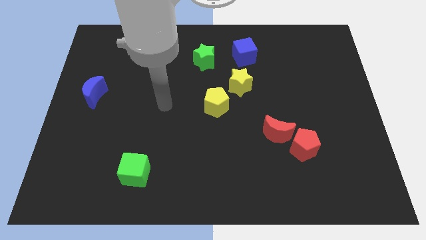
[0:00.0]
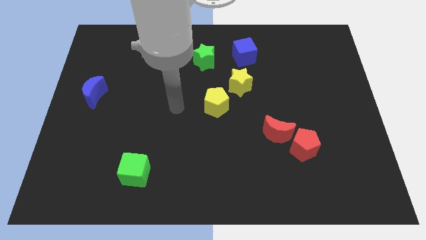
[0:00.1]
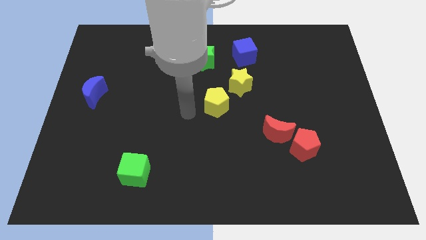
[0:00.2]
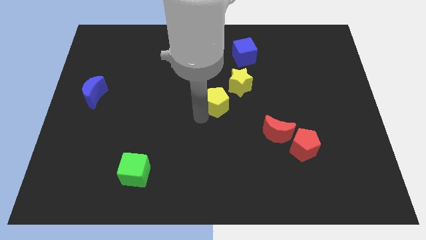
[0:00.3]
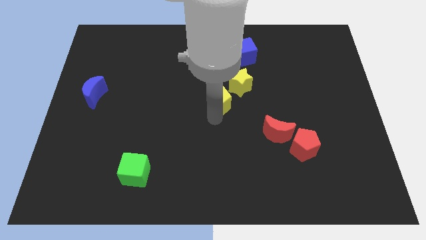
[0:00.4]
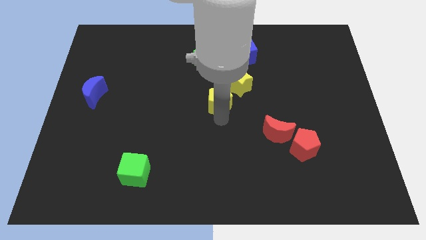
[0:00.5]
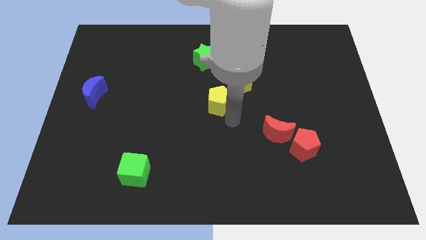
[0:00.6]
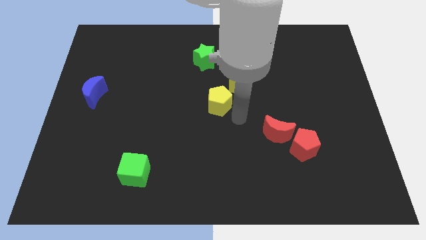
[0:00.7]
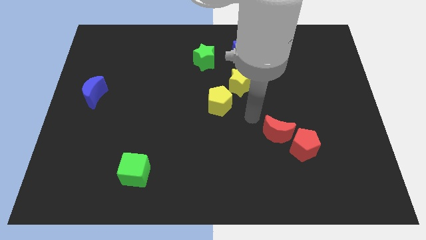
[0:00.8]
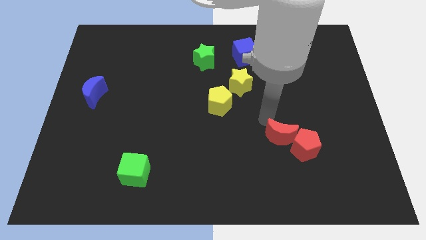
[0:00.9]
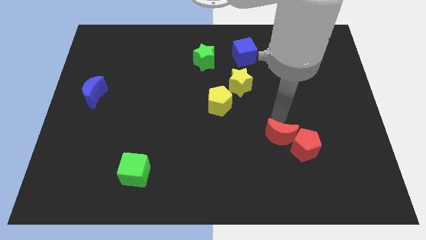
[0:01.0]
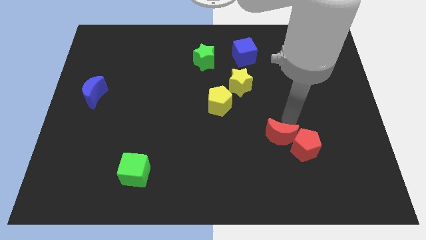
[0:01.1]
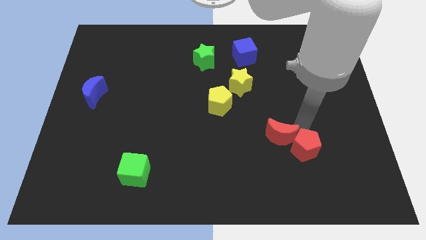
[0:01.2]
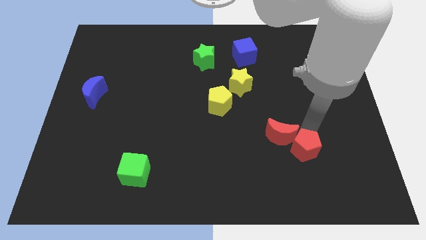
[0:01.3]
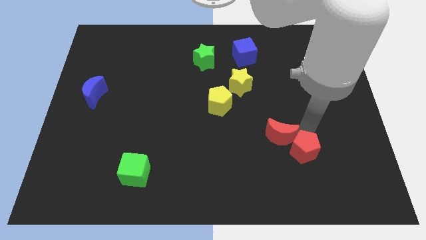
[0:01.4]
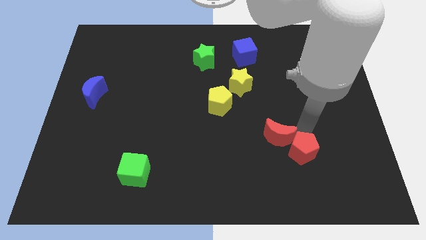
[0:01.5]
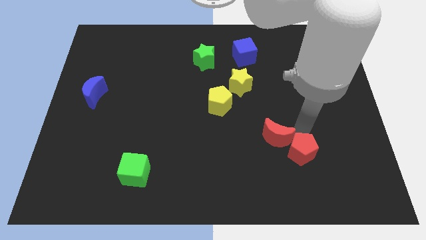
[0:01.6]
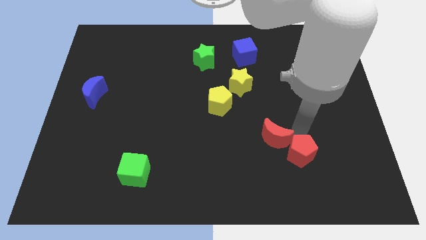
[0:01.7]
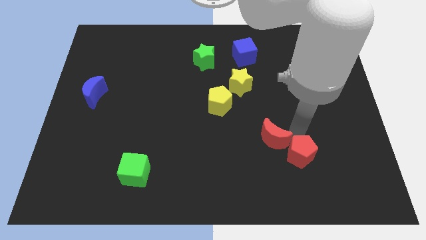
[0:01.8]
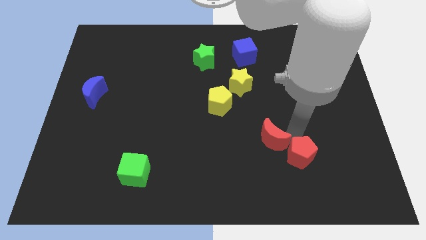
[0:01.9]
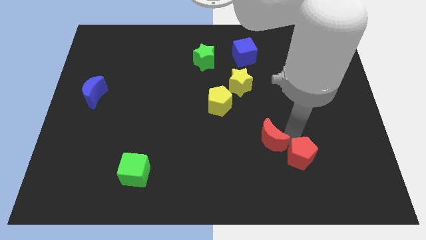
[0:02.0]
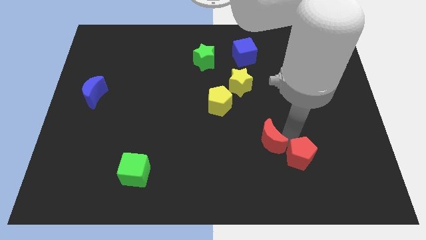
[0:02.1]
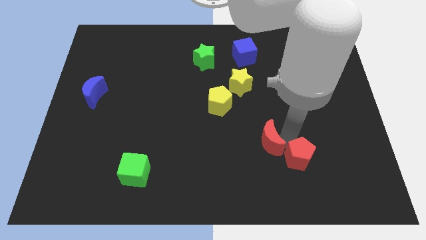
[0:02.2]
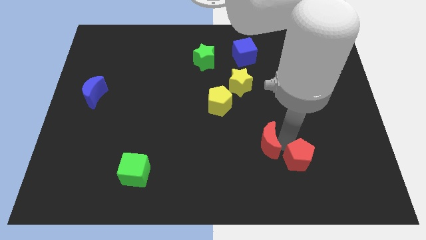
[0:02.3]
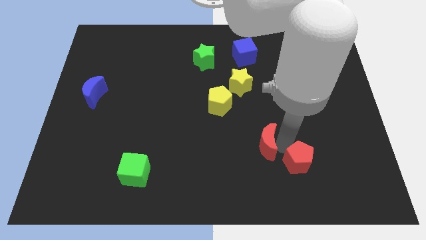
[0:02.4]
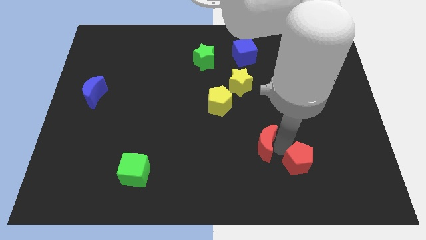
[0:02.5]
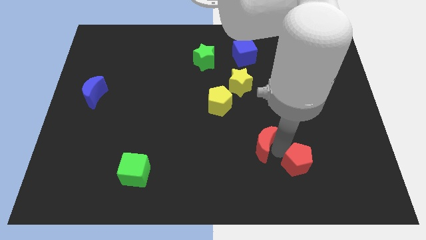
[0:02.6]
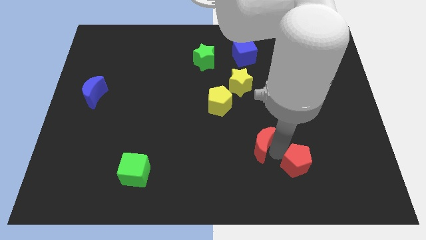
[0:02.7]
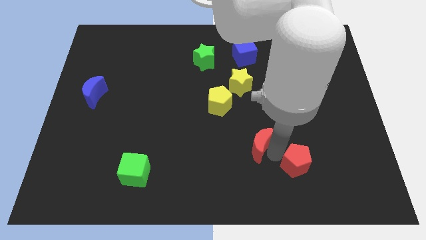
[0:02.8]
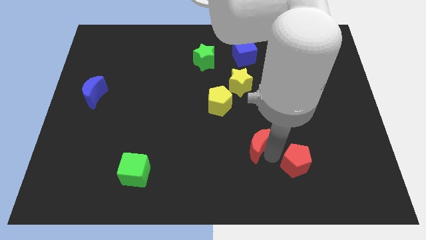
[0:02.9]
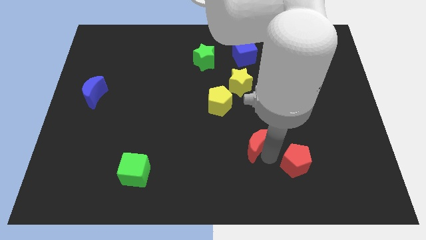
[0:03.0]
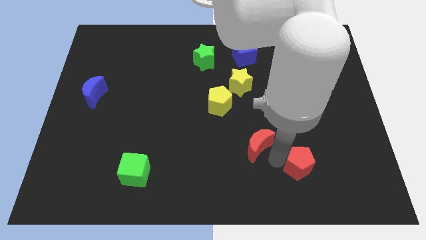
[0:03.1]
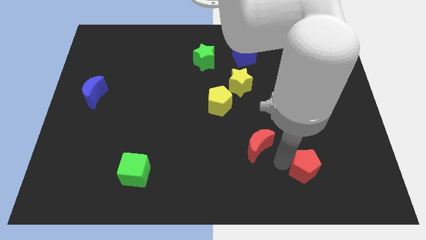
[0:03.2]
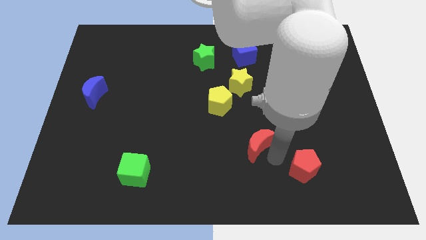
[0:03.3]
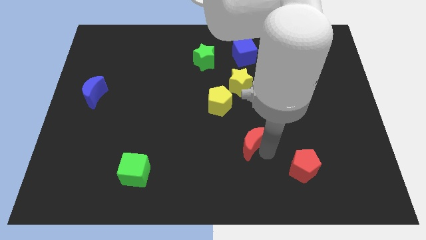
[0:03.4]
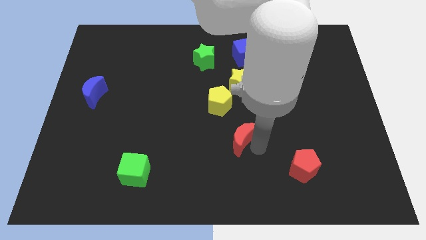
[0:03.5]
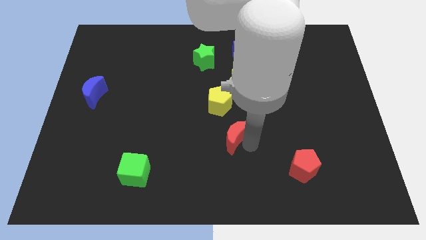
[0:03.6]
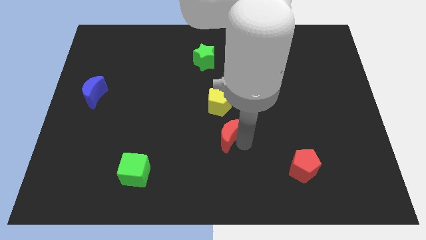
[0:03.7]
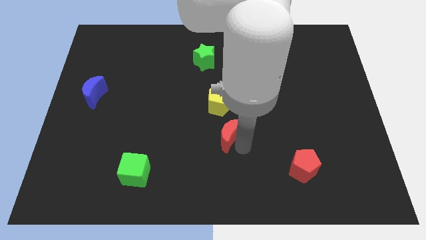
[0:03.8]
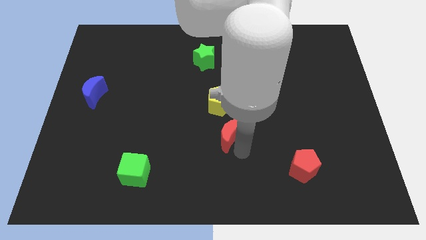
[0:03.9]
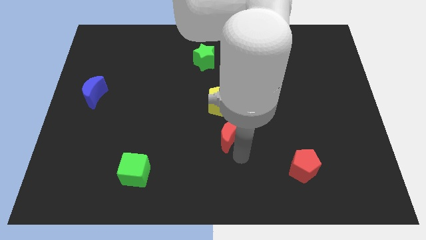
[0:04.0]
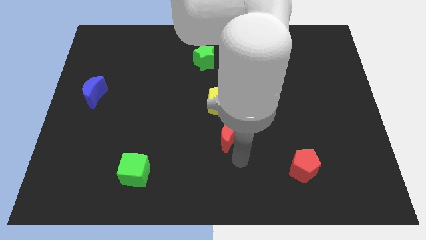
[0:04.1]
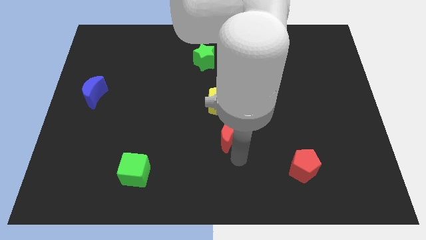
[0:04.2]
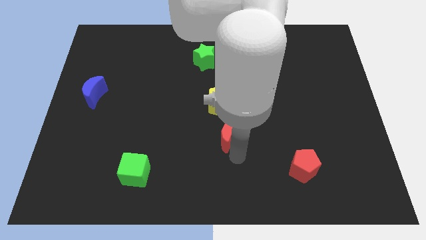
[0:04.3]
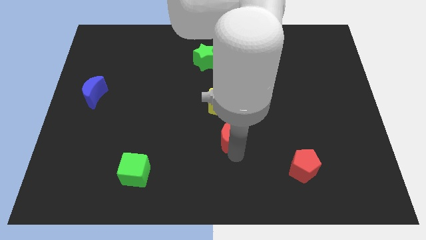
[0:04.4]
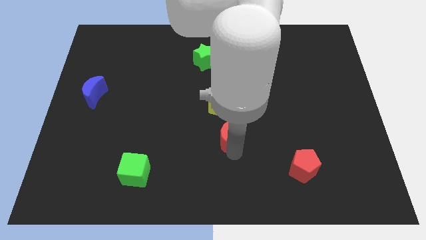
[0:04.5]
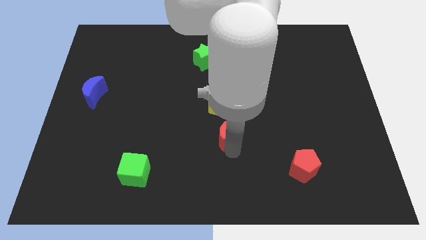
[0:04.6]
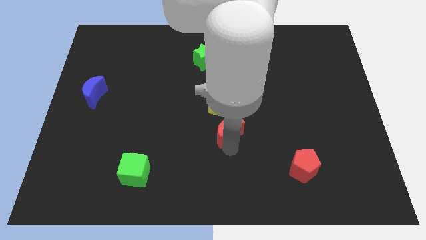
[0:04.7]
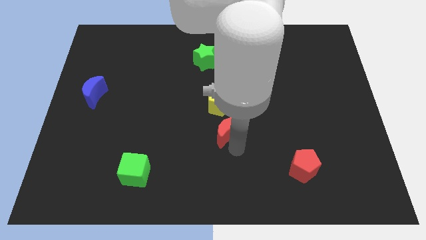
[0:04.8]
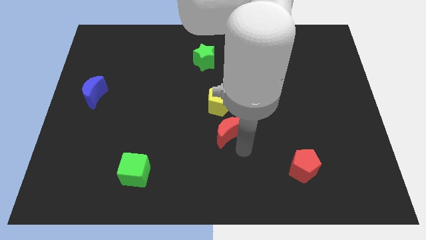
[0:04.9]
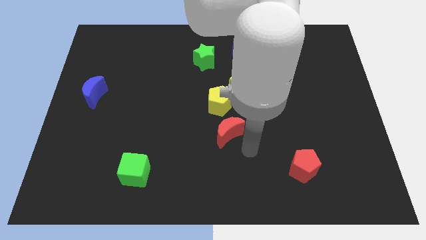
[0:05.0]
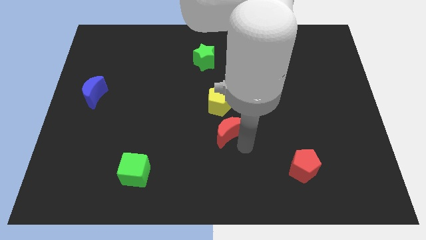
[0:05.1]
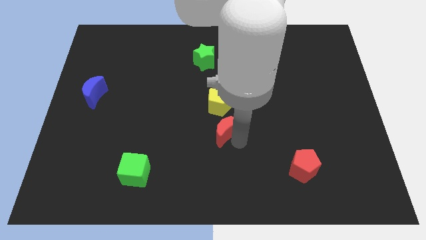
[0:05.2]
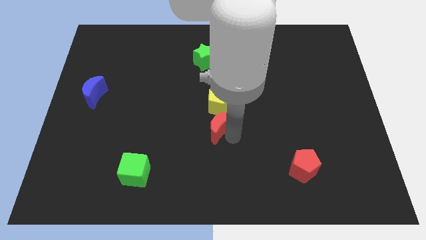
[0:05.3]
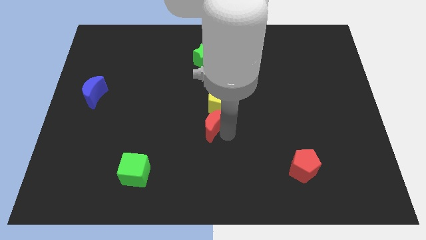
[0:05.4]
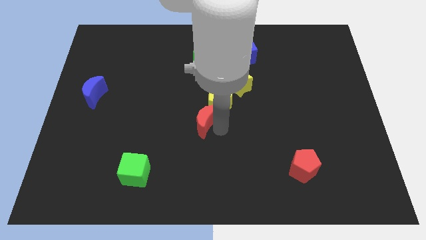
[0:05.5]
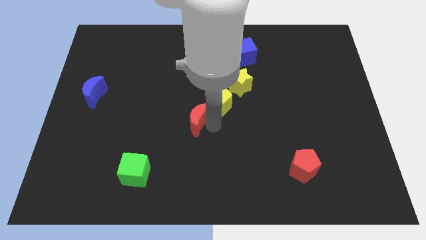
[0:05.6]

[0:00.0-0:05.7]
put the red moon just left of the yellow pentagon

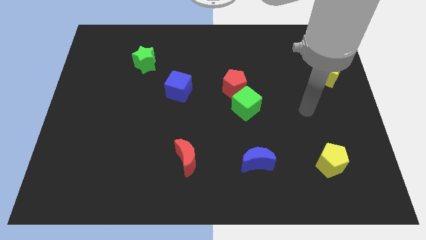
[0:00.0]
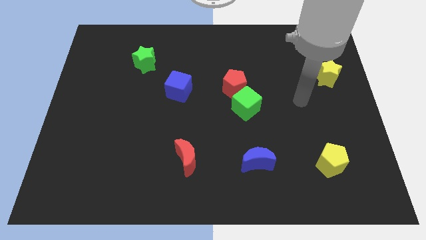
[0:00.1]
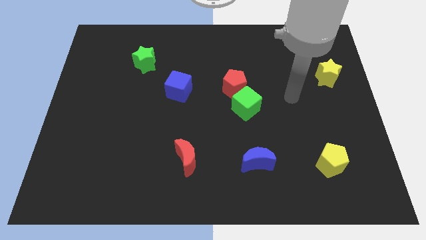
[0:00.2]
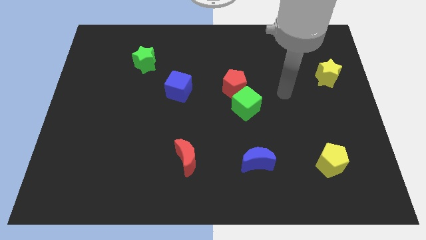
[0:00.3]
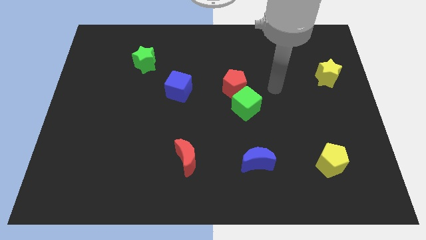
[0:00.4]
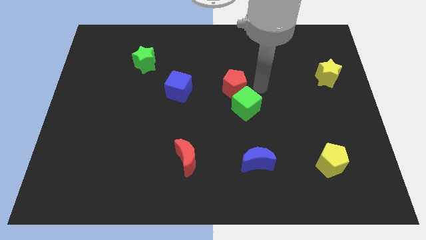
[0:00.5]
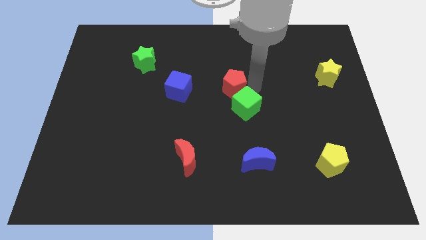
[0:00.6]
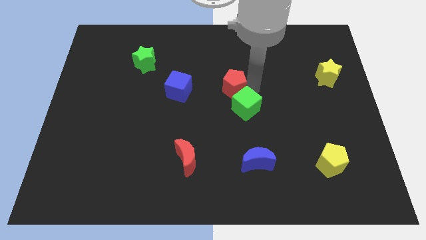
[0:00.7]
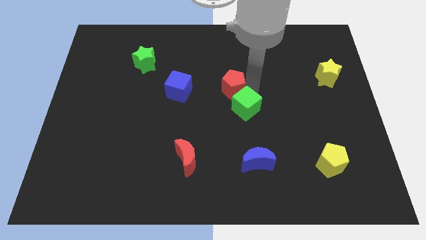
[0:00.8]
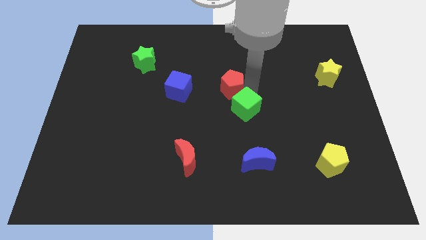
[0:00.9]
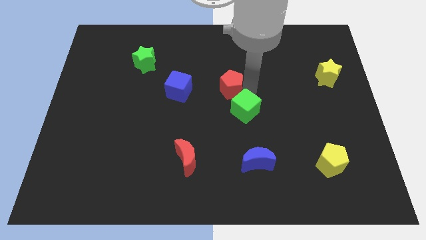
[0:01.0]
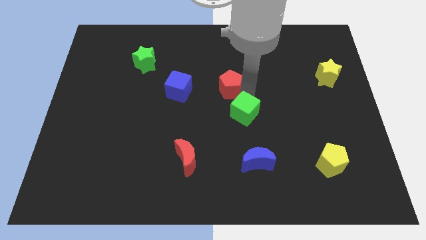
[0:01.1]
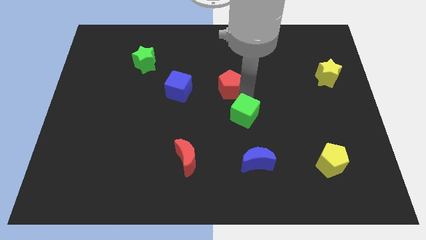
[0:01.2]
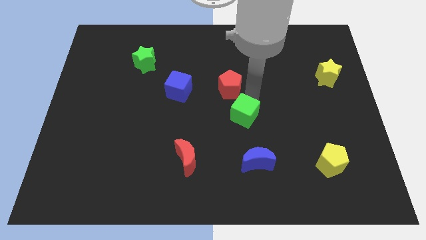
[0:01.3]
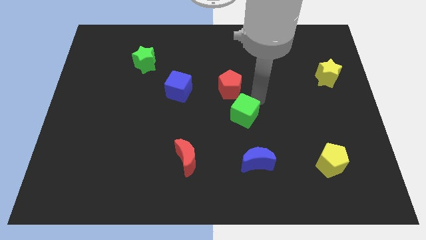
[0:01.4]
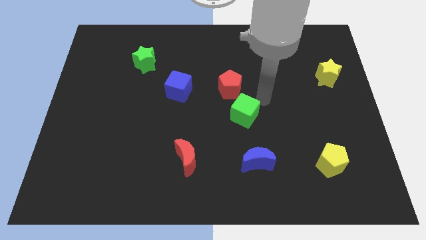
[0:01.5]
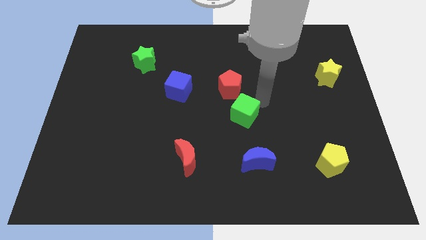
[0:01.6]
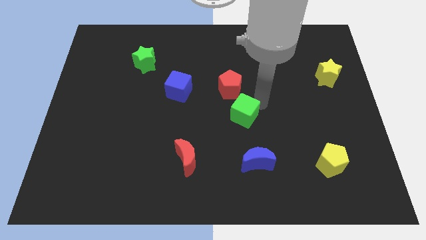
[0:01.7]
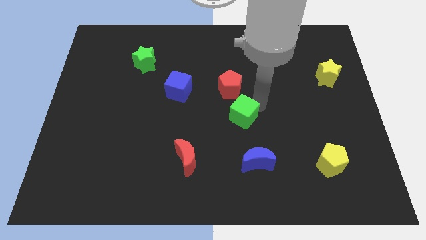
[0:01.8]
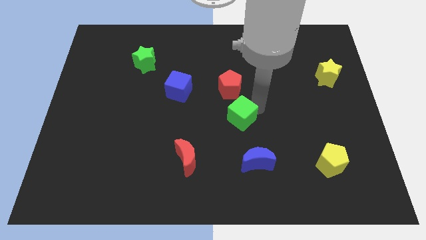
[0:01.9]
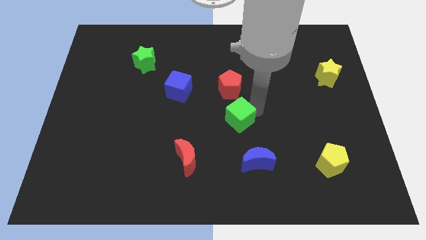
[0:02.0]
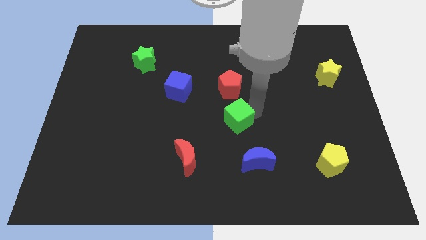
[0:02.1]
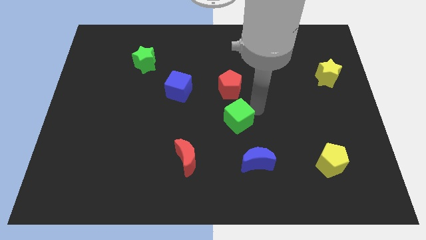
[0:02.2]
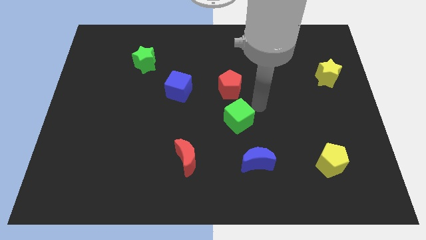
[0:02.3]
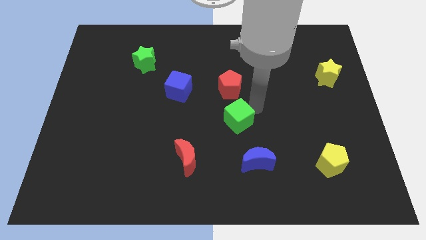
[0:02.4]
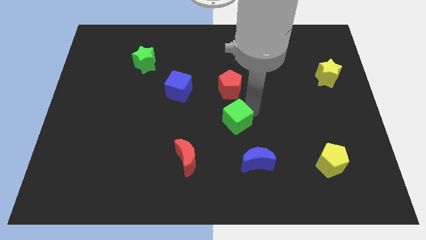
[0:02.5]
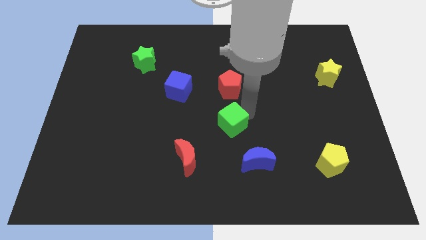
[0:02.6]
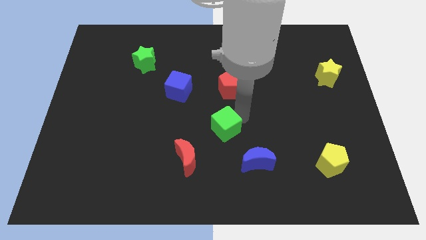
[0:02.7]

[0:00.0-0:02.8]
put the green cube to the top right of the red moon
